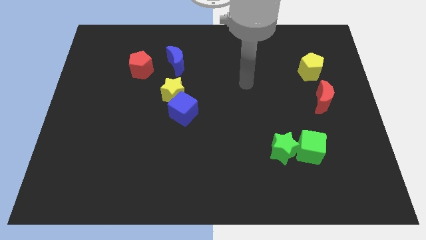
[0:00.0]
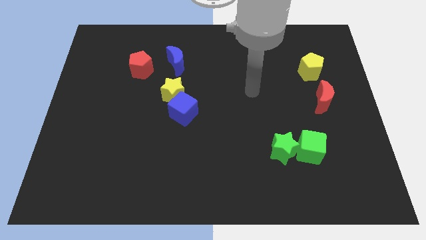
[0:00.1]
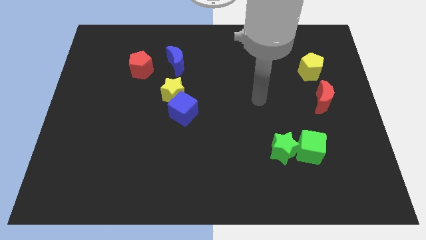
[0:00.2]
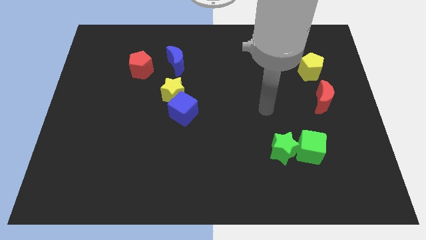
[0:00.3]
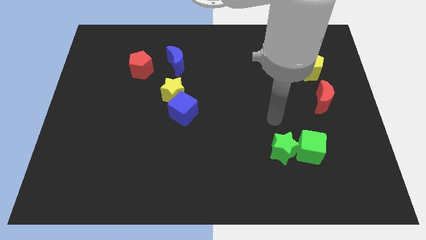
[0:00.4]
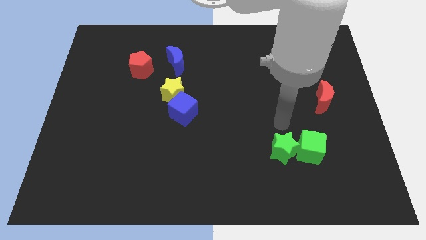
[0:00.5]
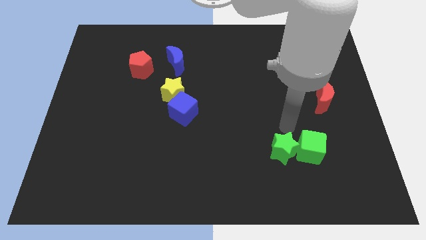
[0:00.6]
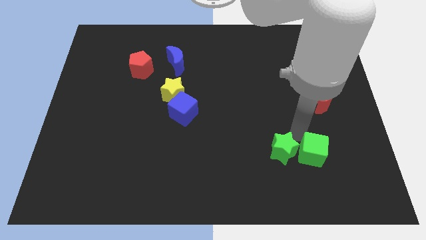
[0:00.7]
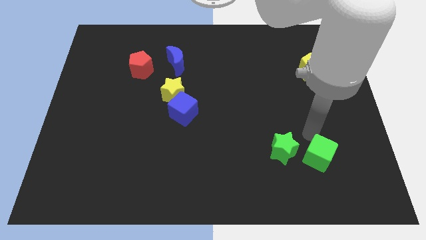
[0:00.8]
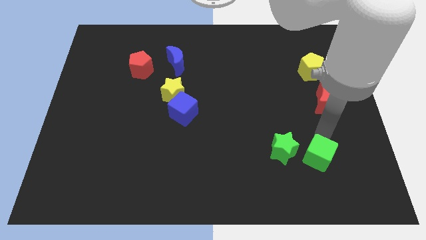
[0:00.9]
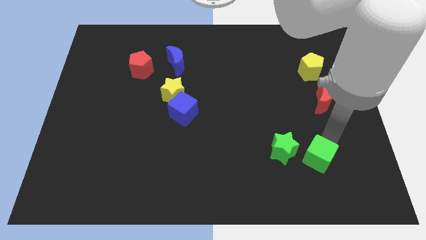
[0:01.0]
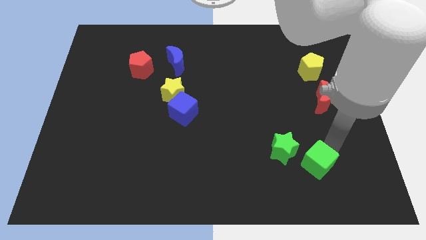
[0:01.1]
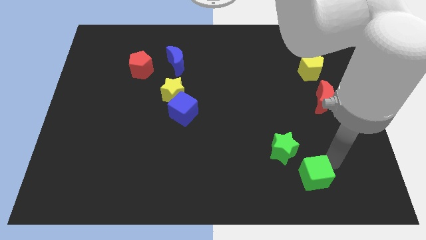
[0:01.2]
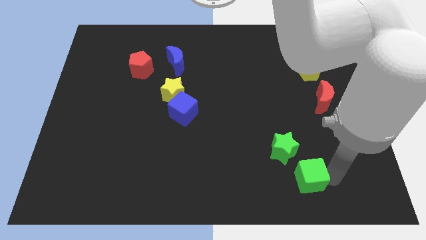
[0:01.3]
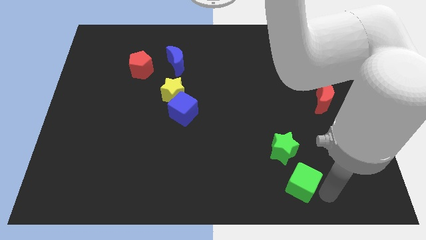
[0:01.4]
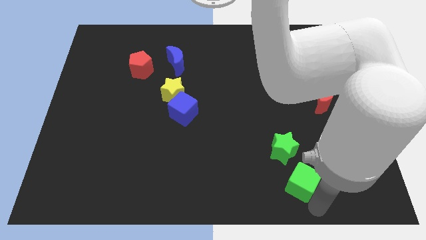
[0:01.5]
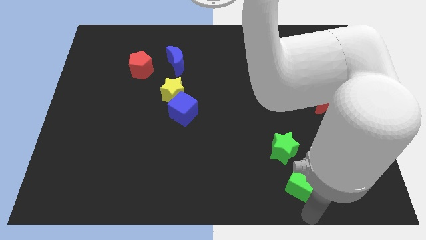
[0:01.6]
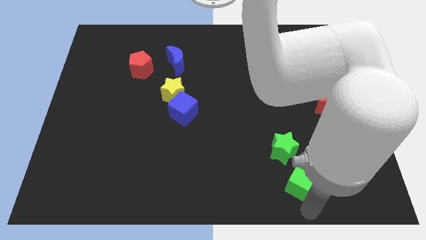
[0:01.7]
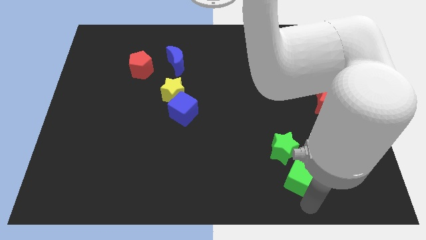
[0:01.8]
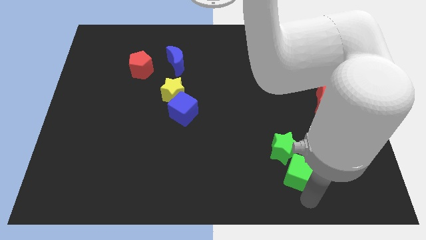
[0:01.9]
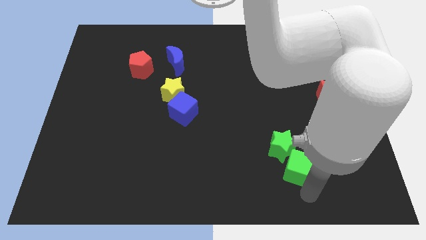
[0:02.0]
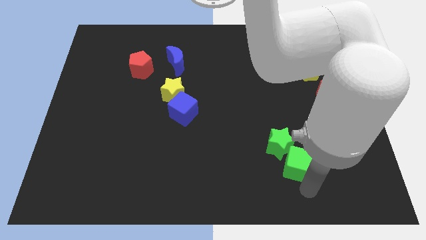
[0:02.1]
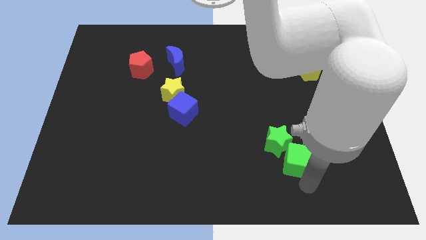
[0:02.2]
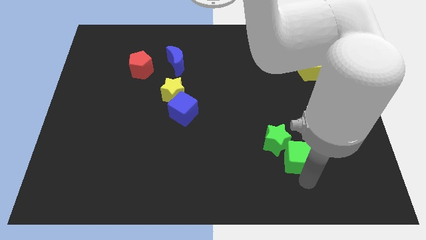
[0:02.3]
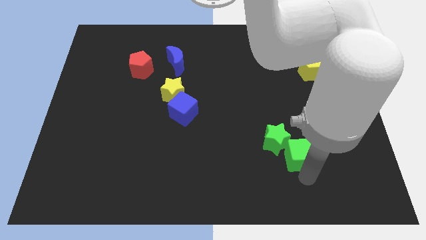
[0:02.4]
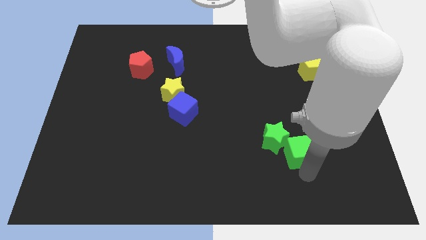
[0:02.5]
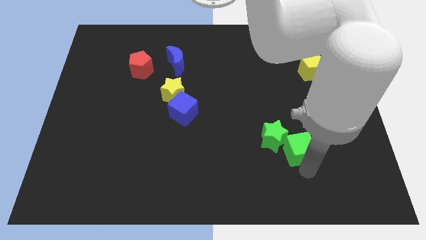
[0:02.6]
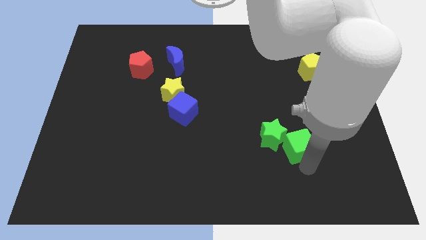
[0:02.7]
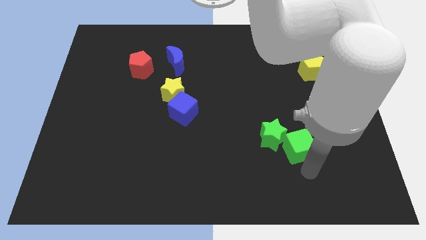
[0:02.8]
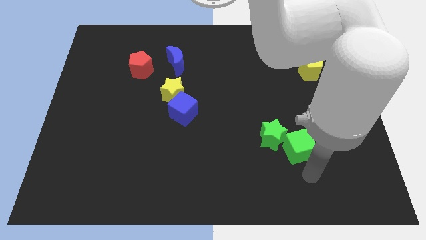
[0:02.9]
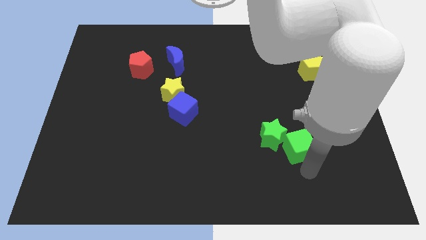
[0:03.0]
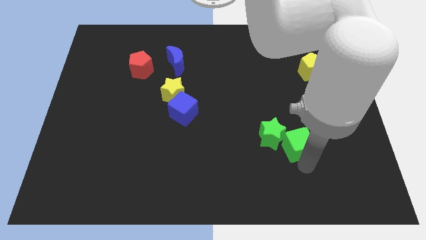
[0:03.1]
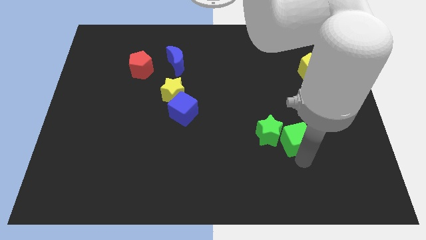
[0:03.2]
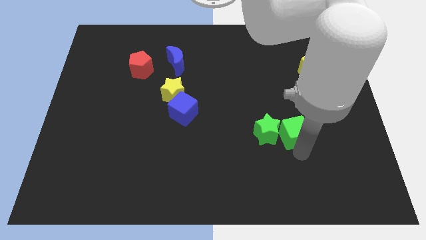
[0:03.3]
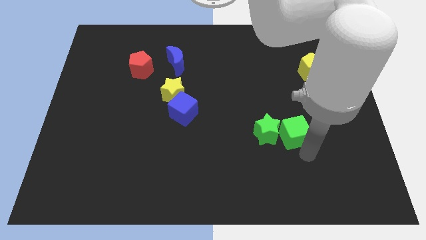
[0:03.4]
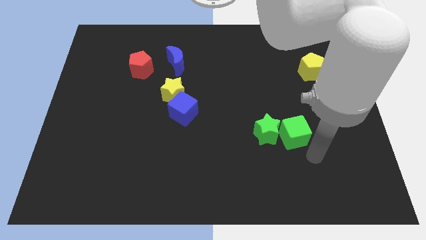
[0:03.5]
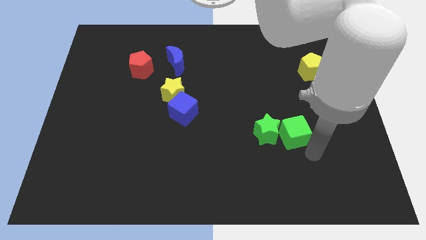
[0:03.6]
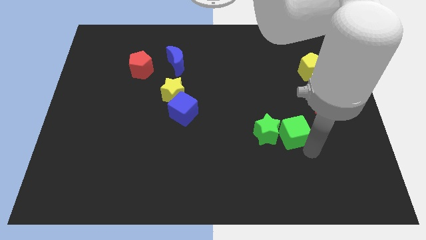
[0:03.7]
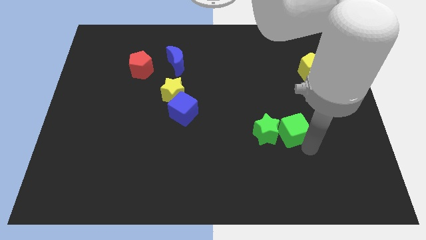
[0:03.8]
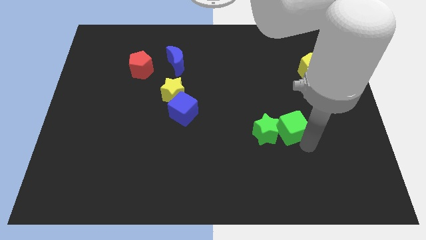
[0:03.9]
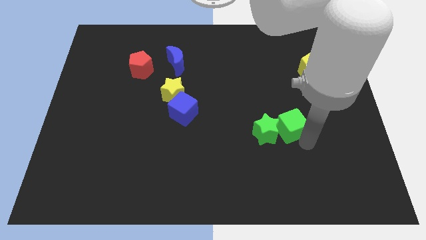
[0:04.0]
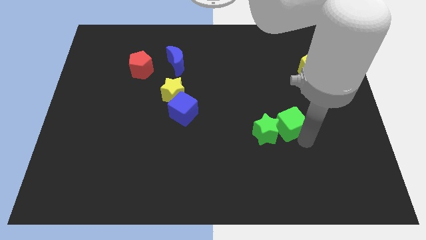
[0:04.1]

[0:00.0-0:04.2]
slightly move the green cube up and then to the left

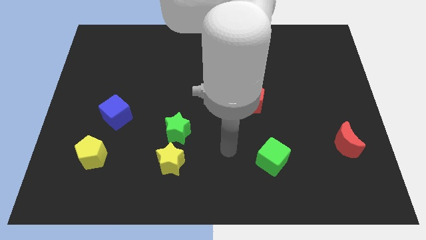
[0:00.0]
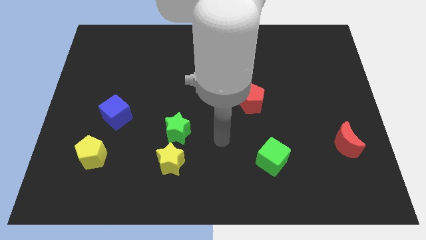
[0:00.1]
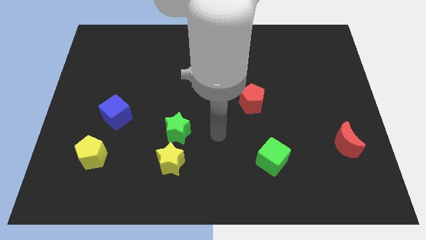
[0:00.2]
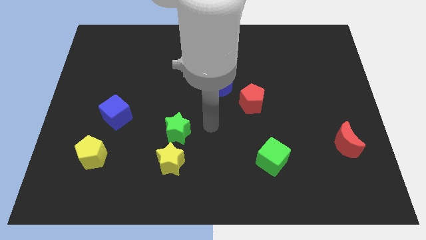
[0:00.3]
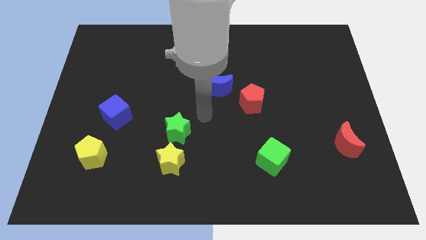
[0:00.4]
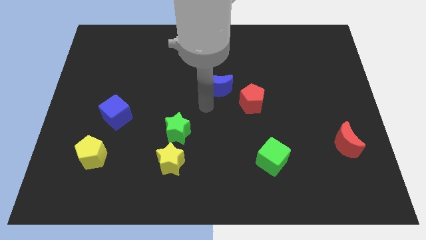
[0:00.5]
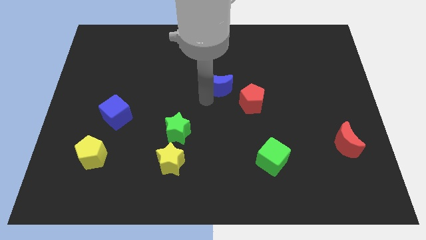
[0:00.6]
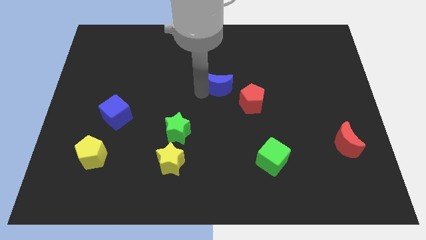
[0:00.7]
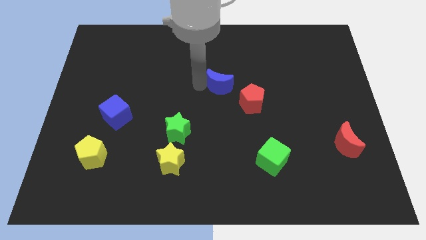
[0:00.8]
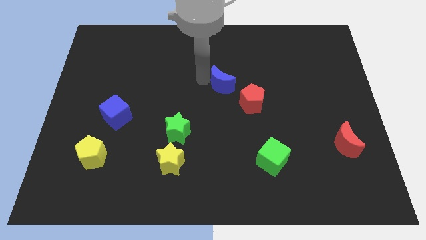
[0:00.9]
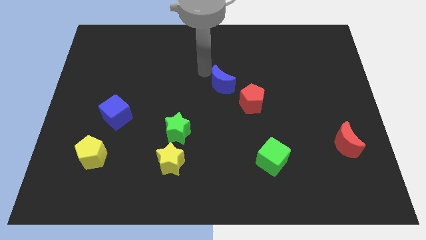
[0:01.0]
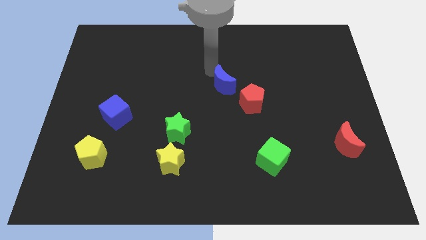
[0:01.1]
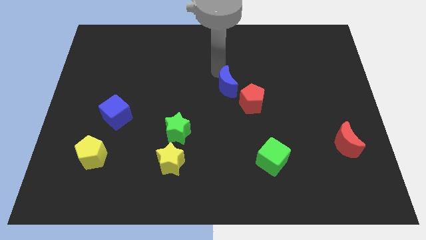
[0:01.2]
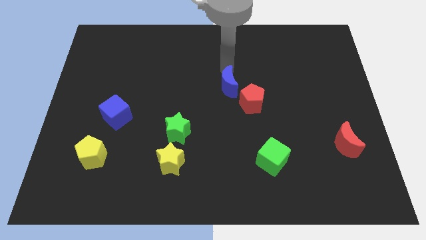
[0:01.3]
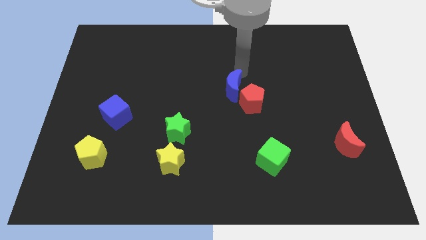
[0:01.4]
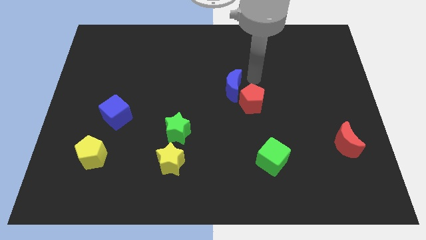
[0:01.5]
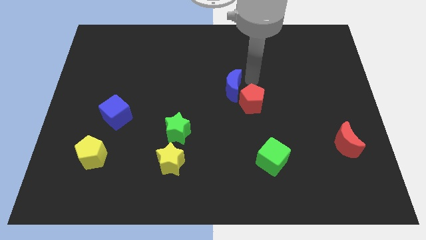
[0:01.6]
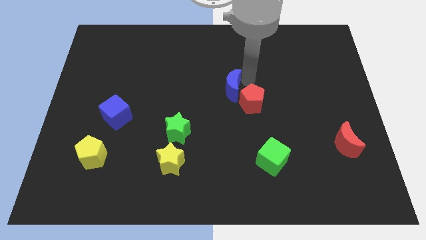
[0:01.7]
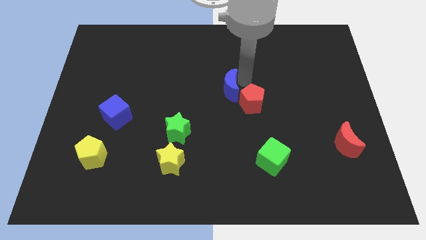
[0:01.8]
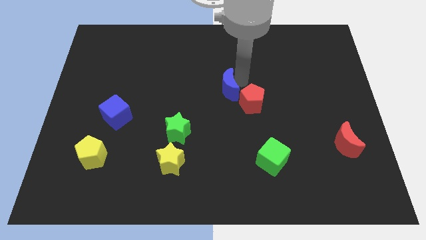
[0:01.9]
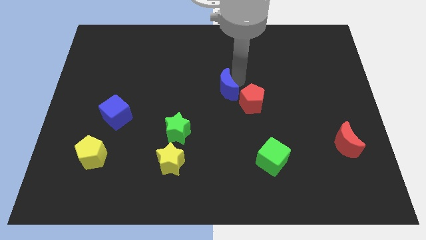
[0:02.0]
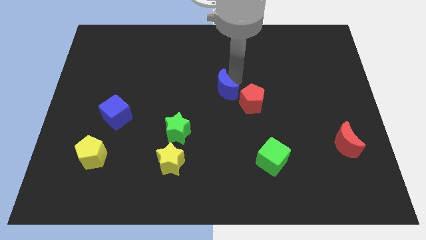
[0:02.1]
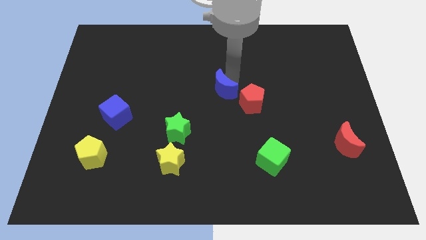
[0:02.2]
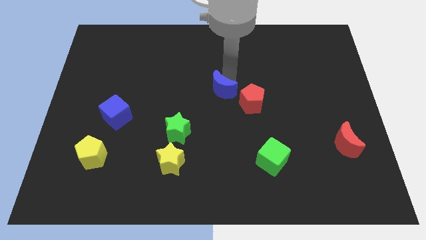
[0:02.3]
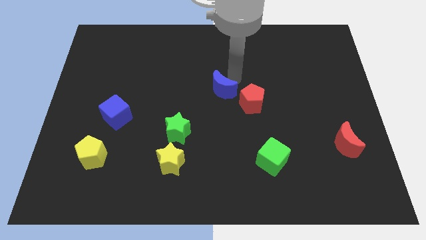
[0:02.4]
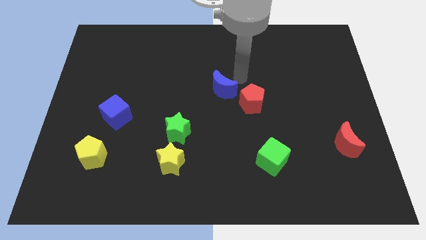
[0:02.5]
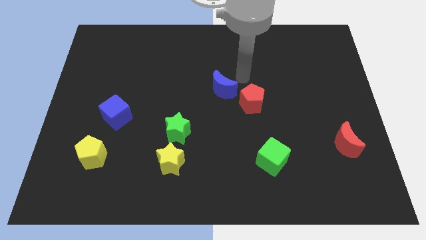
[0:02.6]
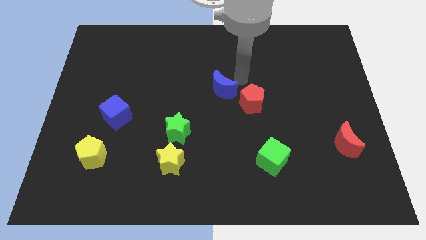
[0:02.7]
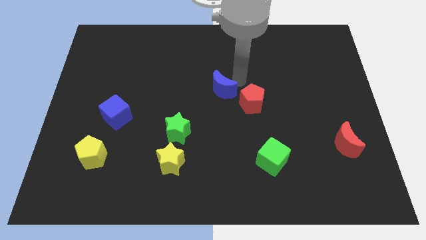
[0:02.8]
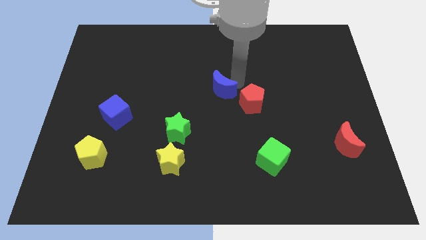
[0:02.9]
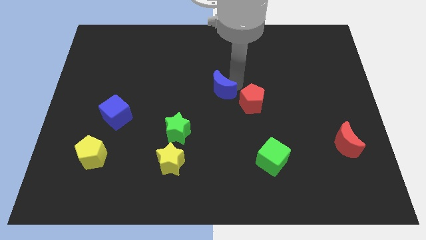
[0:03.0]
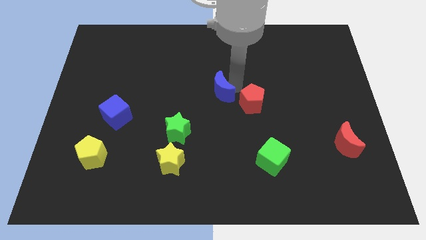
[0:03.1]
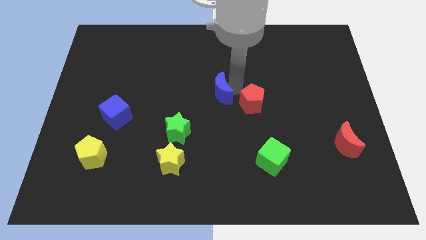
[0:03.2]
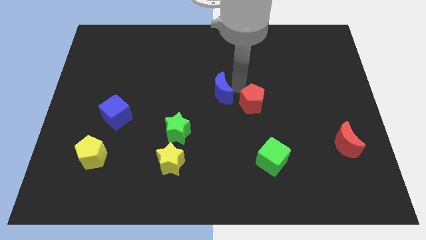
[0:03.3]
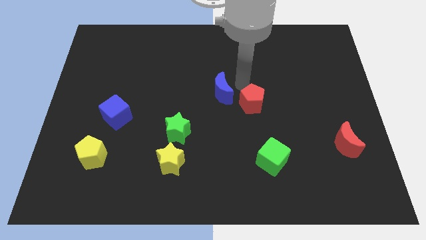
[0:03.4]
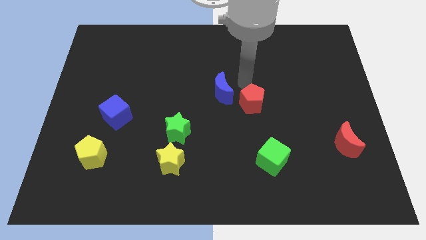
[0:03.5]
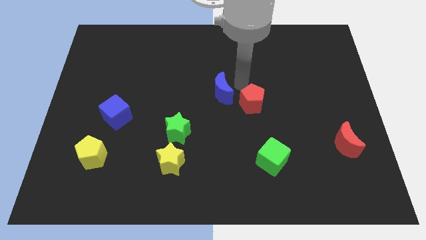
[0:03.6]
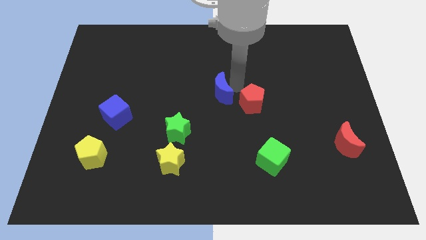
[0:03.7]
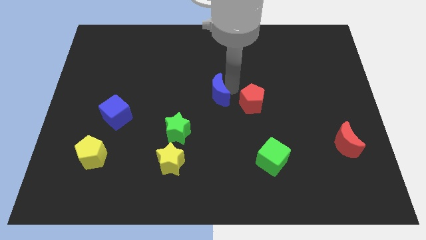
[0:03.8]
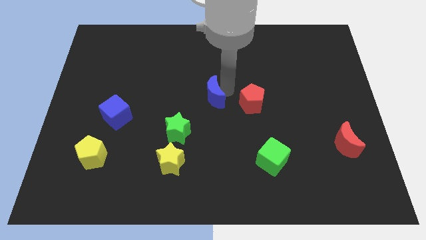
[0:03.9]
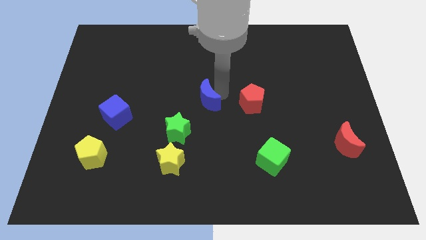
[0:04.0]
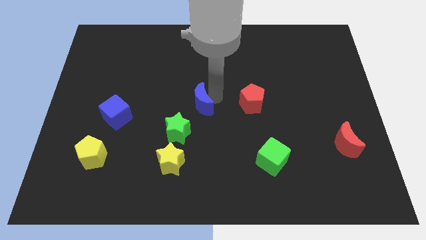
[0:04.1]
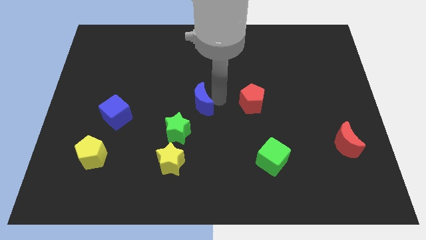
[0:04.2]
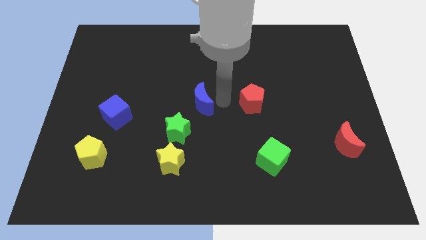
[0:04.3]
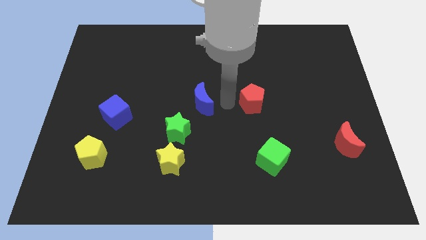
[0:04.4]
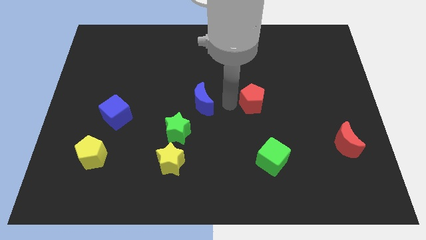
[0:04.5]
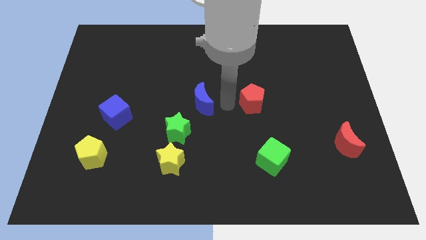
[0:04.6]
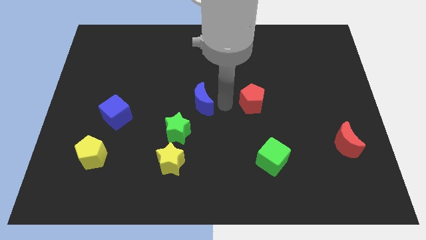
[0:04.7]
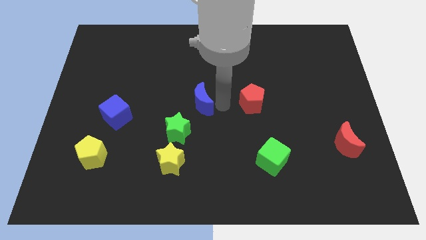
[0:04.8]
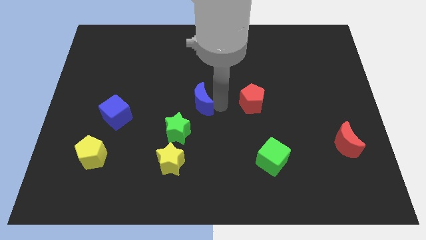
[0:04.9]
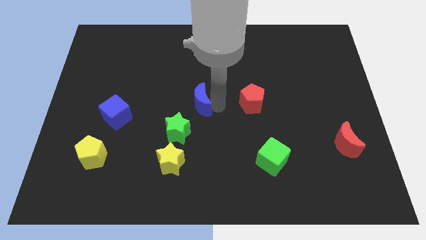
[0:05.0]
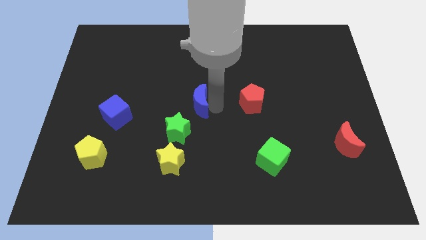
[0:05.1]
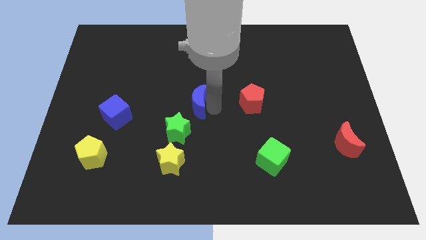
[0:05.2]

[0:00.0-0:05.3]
slightly push the blue moon downwards and to the left diagonally
